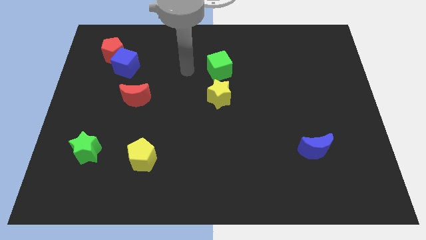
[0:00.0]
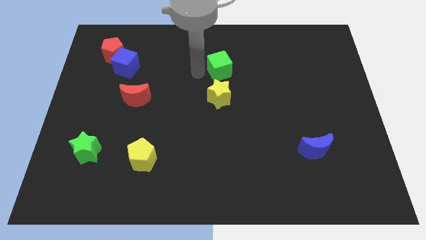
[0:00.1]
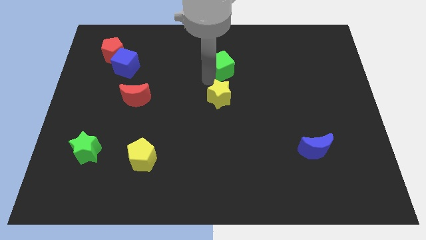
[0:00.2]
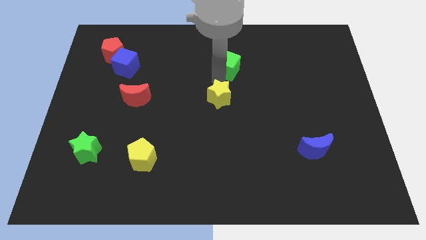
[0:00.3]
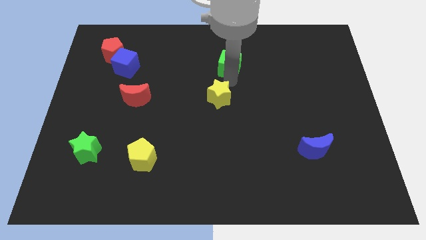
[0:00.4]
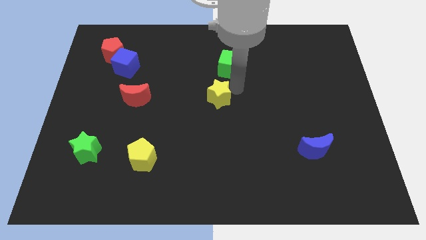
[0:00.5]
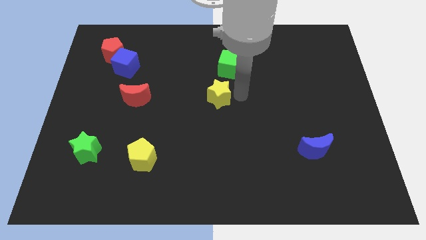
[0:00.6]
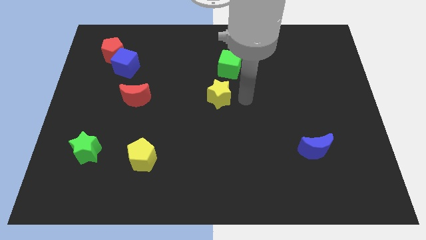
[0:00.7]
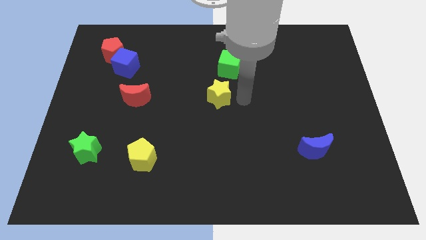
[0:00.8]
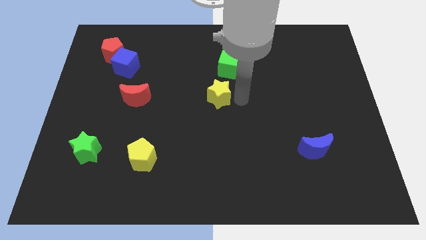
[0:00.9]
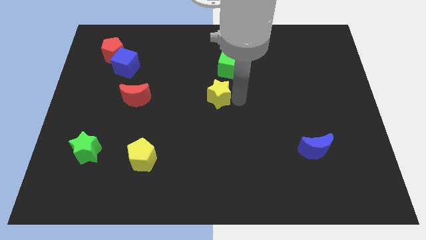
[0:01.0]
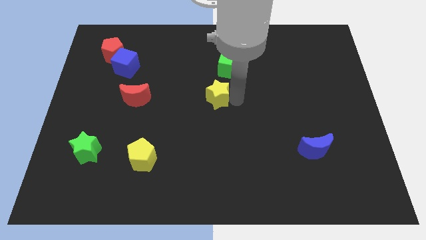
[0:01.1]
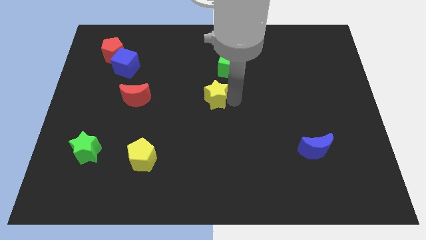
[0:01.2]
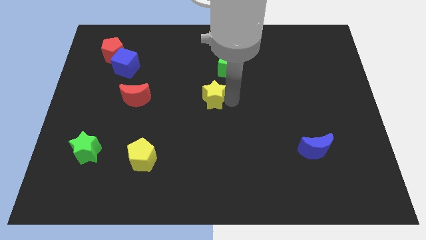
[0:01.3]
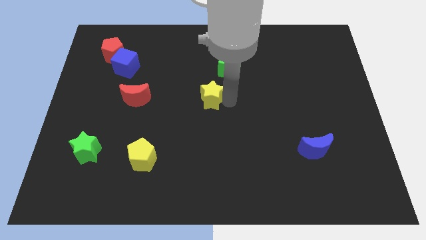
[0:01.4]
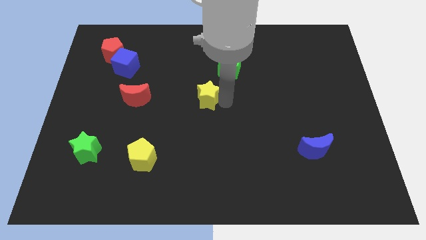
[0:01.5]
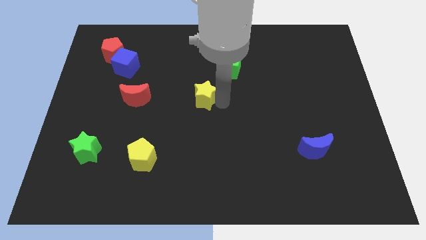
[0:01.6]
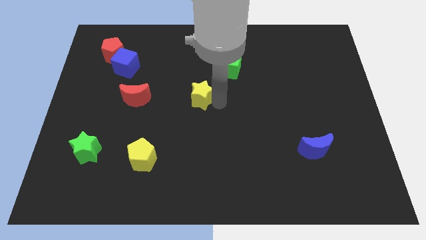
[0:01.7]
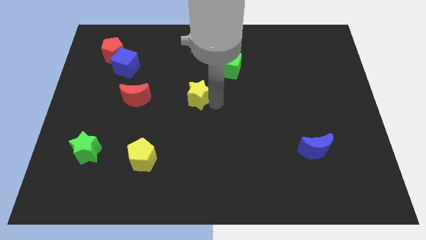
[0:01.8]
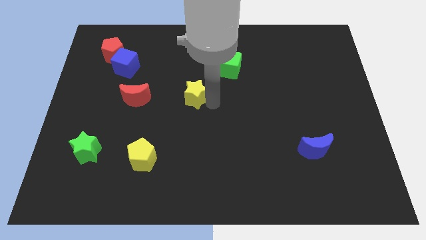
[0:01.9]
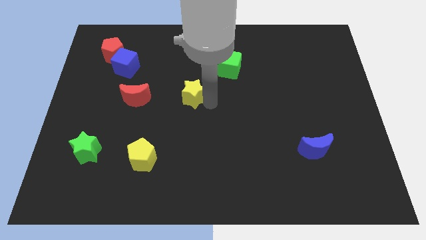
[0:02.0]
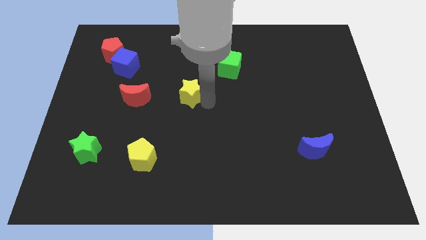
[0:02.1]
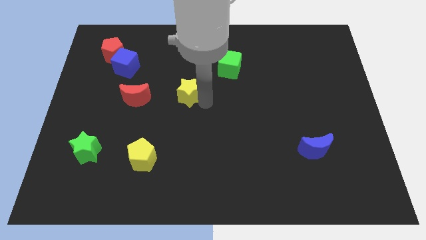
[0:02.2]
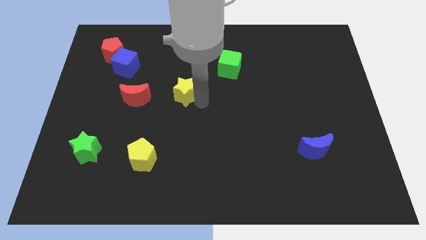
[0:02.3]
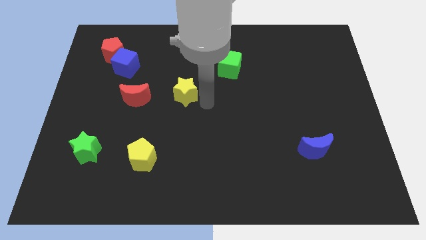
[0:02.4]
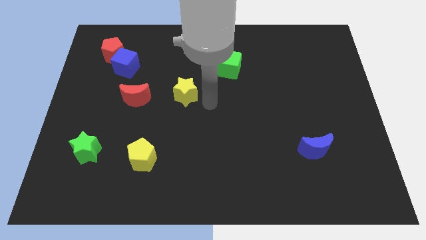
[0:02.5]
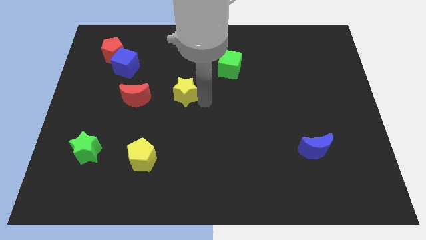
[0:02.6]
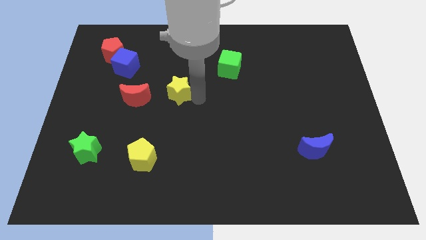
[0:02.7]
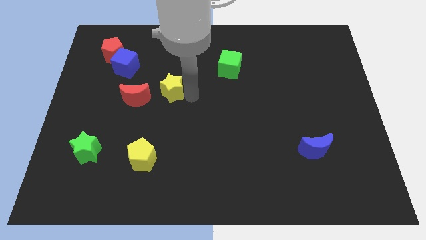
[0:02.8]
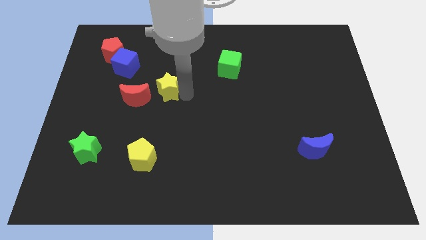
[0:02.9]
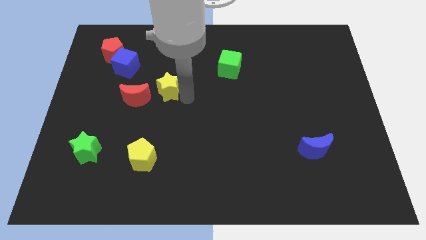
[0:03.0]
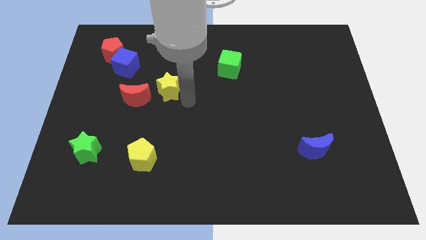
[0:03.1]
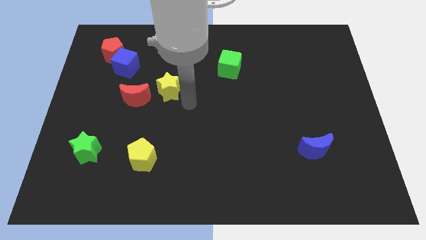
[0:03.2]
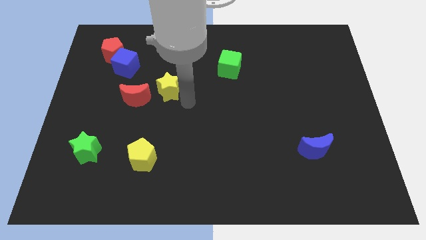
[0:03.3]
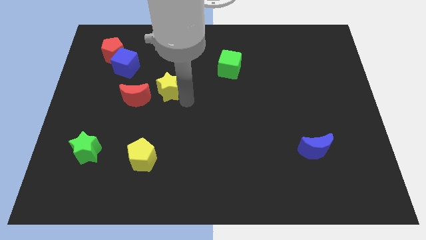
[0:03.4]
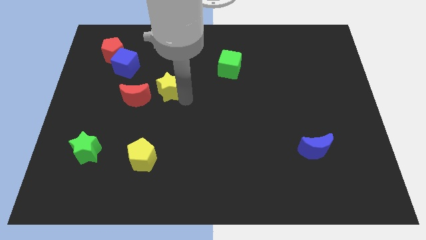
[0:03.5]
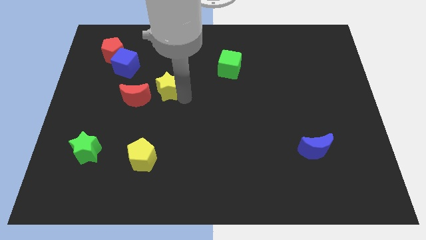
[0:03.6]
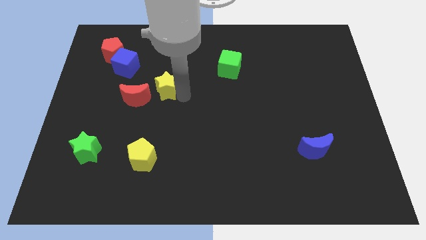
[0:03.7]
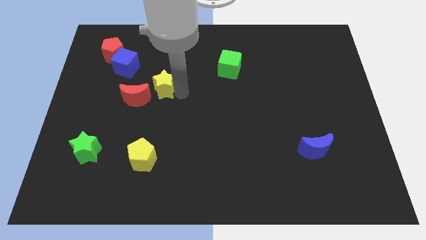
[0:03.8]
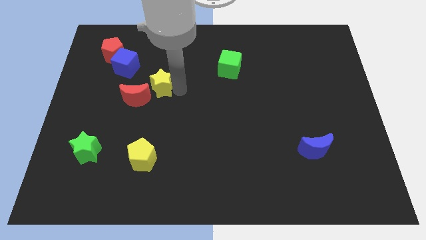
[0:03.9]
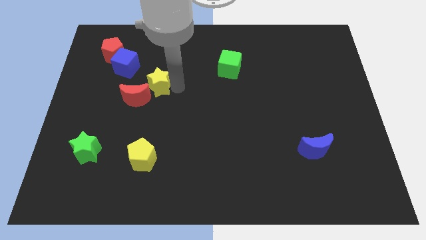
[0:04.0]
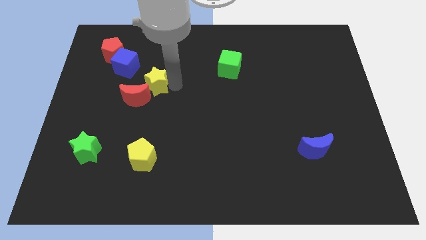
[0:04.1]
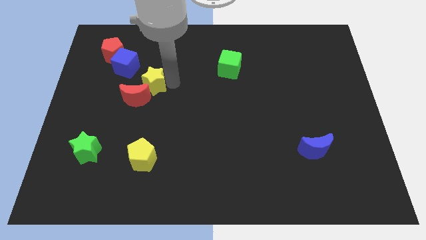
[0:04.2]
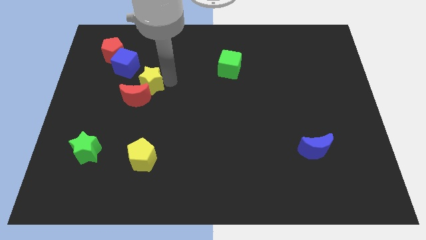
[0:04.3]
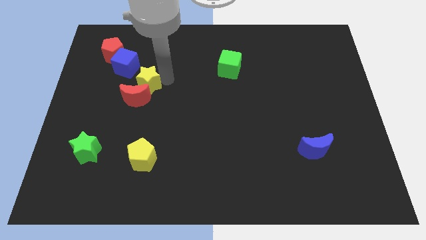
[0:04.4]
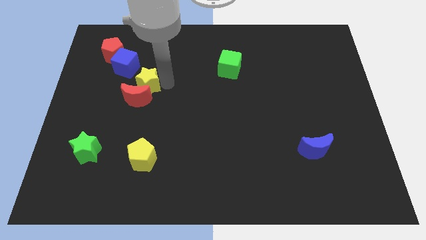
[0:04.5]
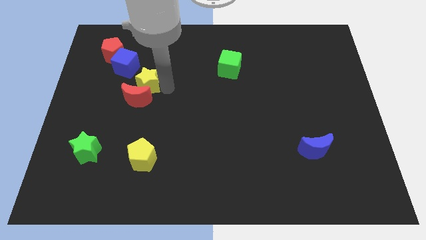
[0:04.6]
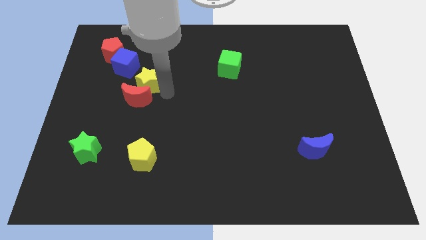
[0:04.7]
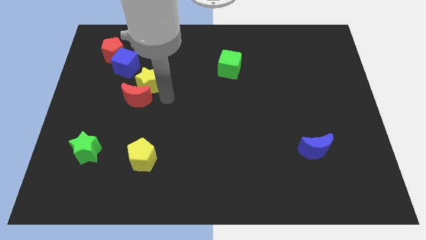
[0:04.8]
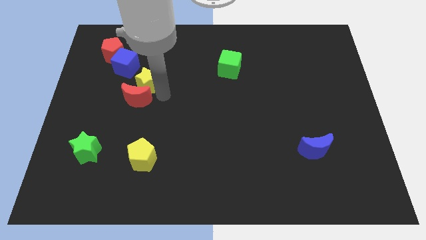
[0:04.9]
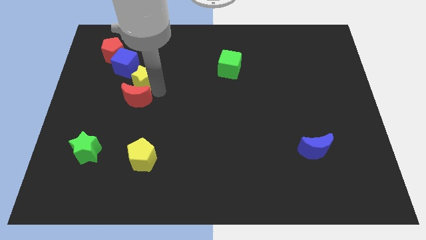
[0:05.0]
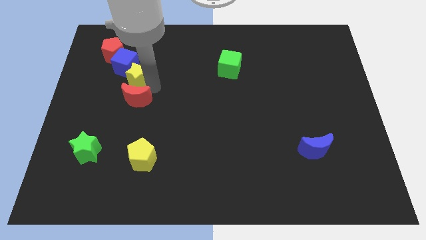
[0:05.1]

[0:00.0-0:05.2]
push the yellow star diagonally down and to the right of the red pentagon

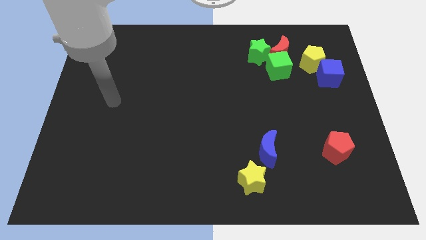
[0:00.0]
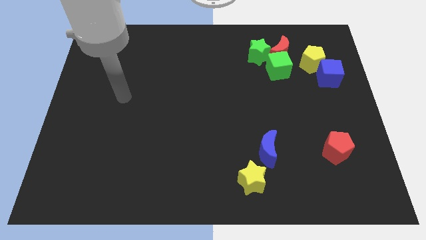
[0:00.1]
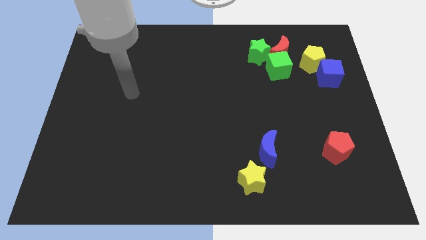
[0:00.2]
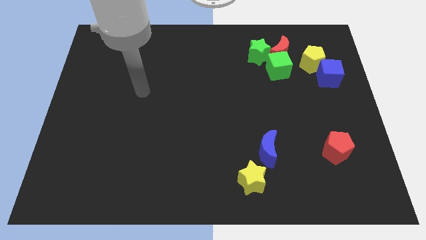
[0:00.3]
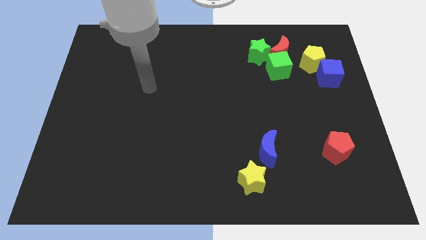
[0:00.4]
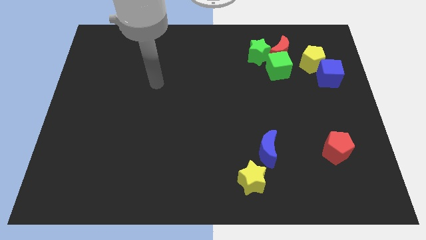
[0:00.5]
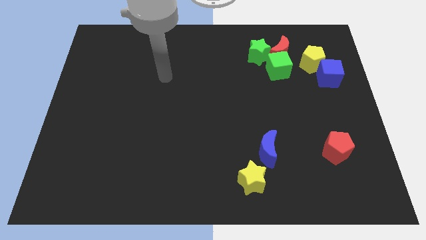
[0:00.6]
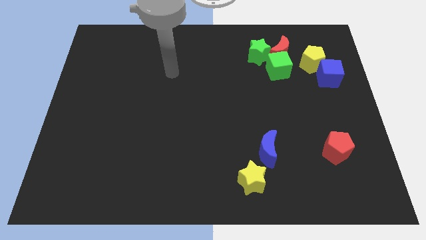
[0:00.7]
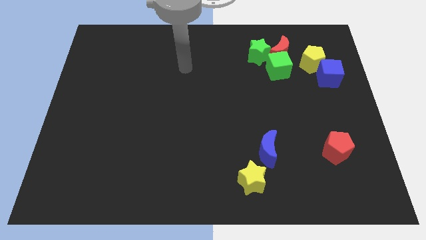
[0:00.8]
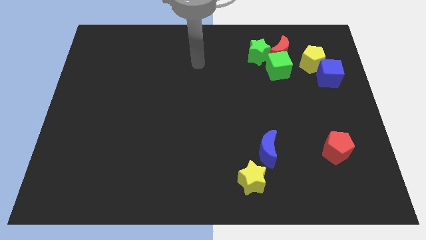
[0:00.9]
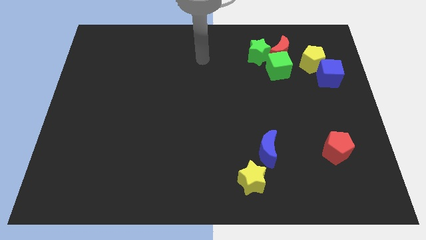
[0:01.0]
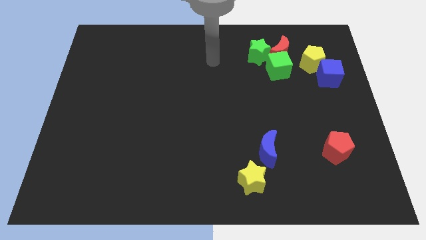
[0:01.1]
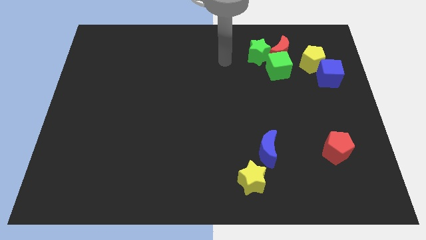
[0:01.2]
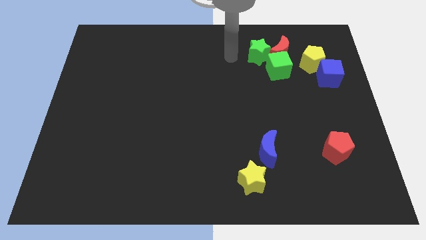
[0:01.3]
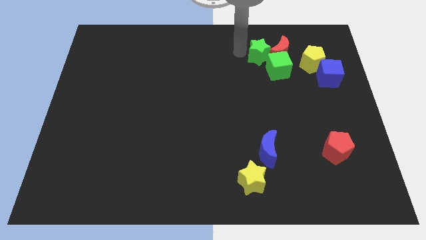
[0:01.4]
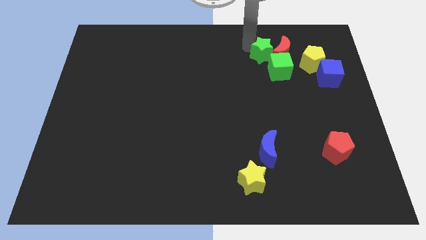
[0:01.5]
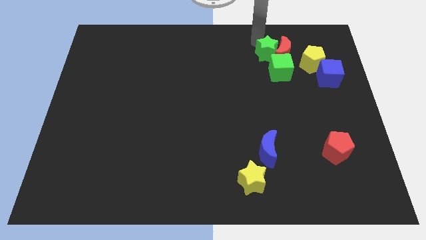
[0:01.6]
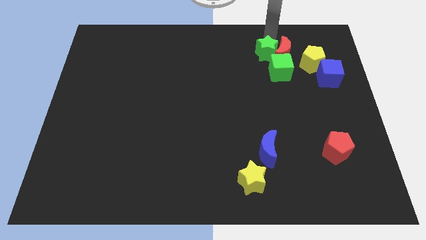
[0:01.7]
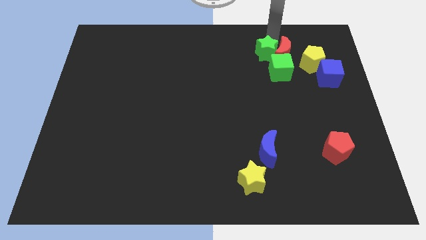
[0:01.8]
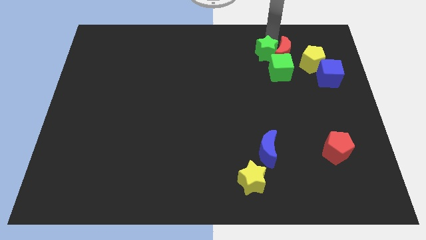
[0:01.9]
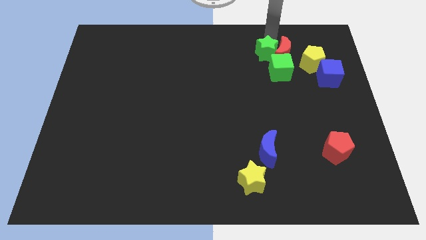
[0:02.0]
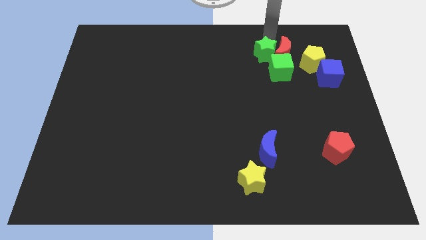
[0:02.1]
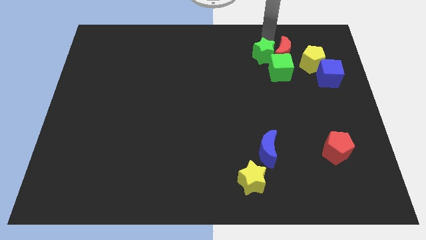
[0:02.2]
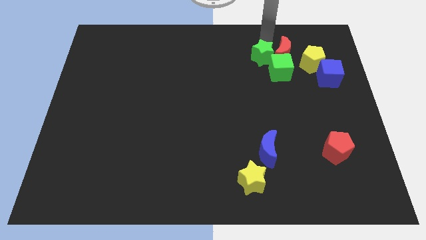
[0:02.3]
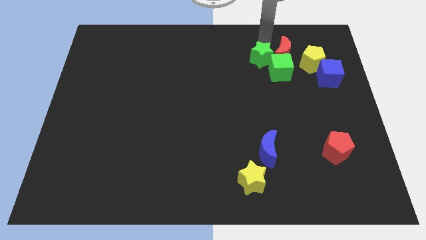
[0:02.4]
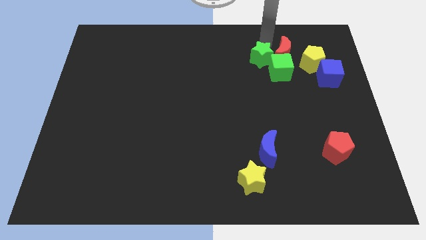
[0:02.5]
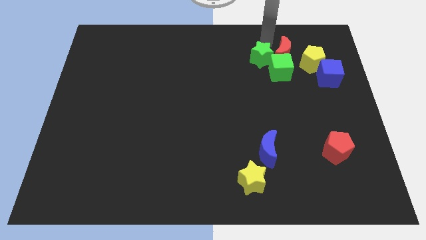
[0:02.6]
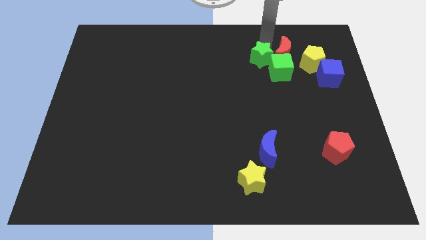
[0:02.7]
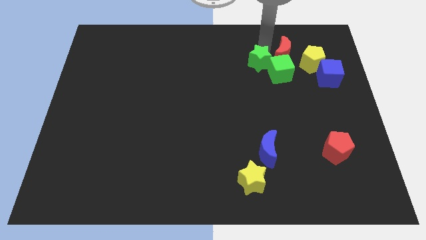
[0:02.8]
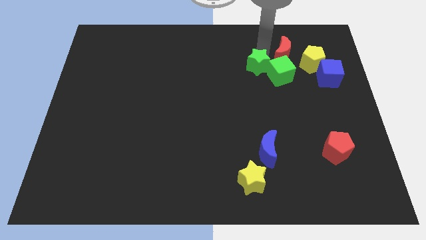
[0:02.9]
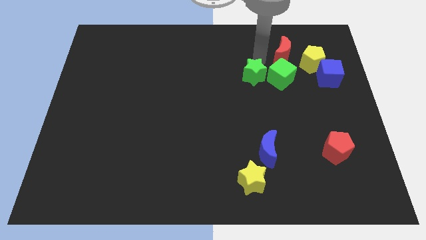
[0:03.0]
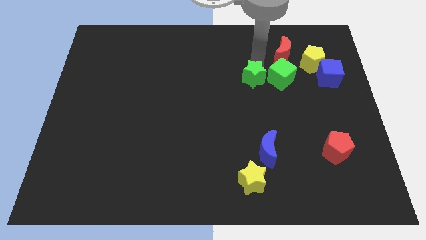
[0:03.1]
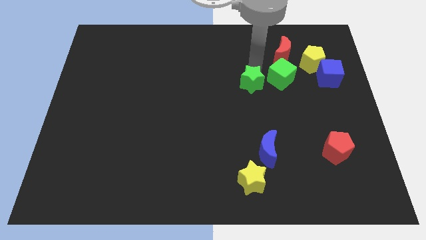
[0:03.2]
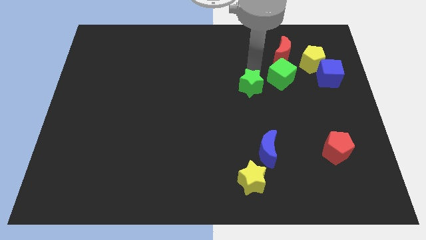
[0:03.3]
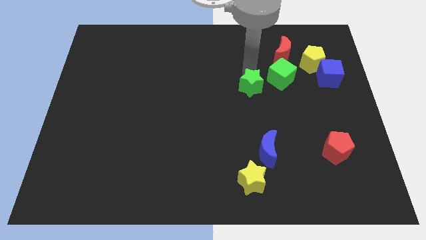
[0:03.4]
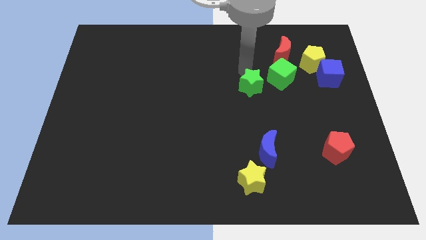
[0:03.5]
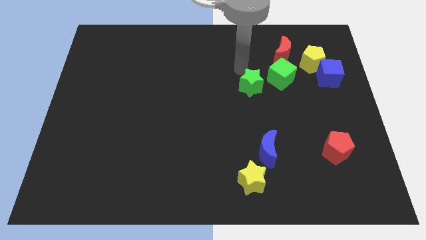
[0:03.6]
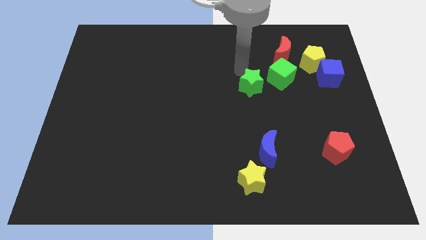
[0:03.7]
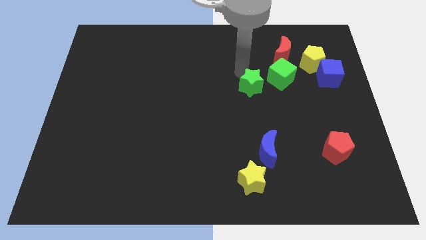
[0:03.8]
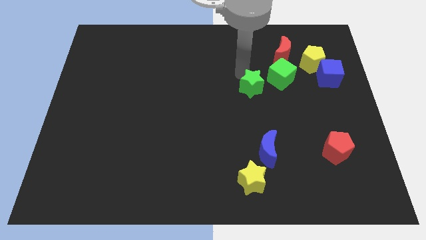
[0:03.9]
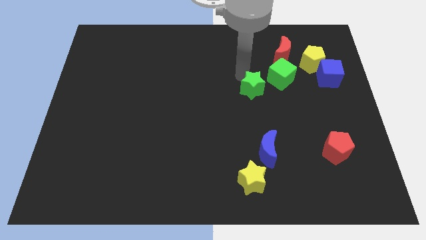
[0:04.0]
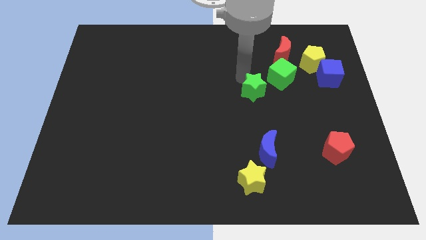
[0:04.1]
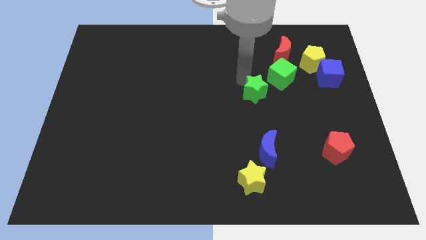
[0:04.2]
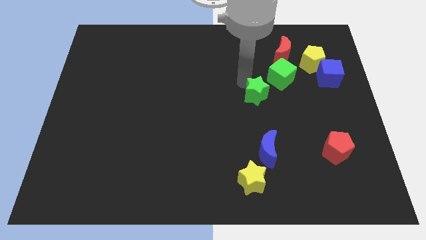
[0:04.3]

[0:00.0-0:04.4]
put the green star to the top of the blue moon
